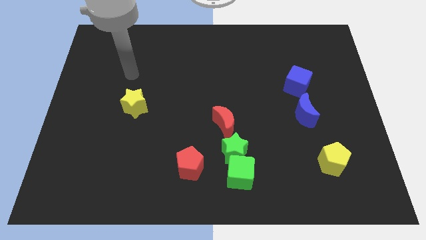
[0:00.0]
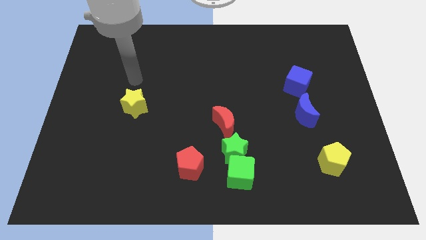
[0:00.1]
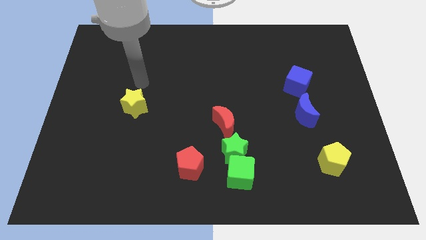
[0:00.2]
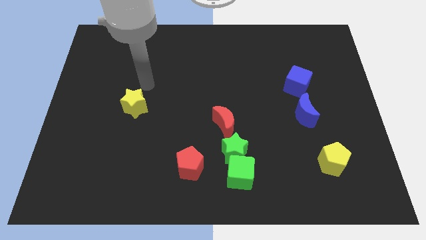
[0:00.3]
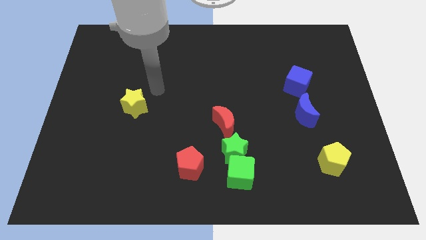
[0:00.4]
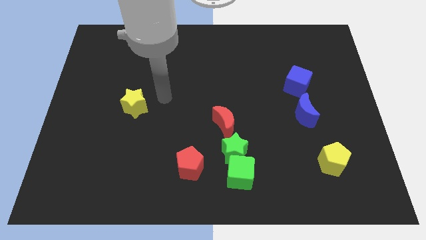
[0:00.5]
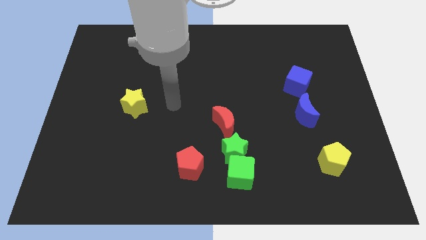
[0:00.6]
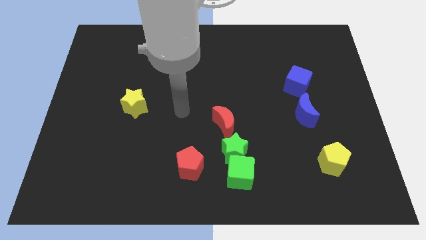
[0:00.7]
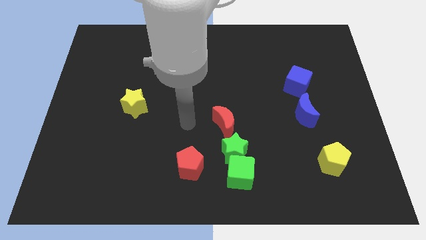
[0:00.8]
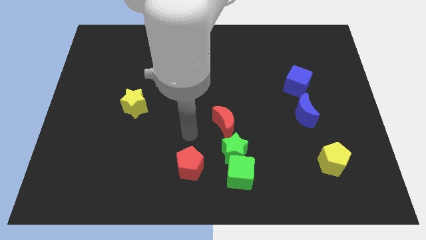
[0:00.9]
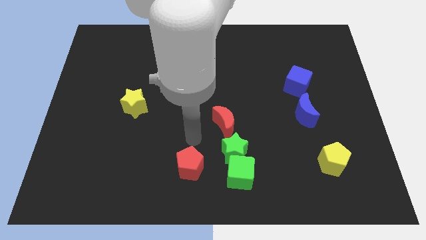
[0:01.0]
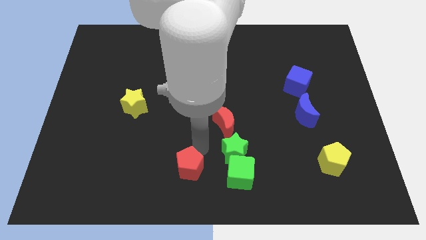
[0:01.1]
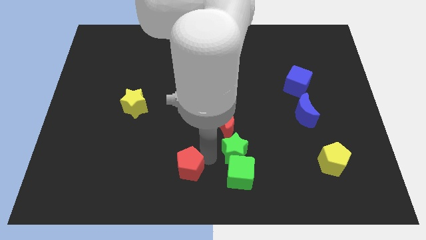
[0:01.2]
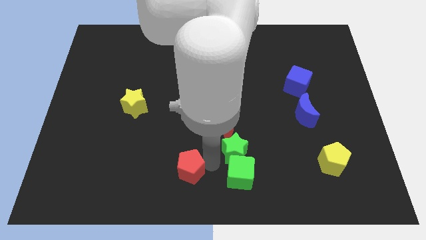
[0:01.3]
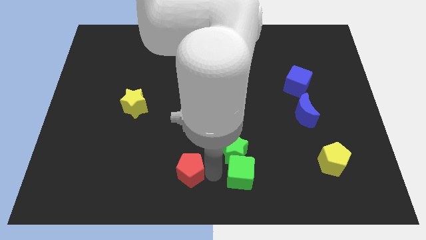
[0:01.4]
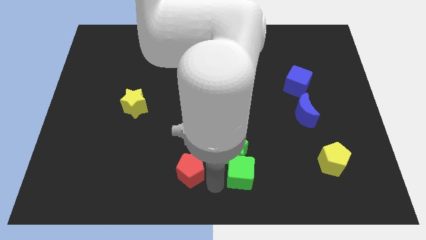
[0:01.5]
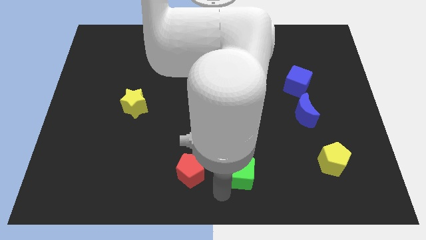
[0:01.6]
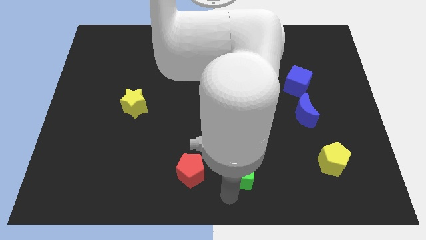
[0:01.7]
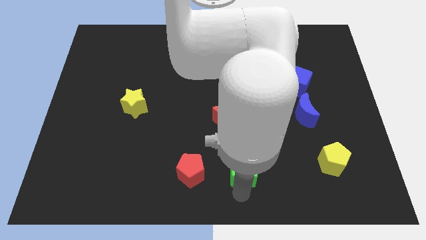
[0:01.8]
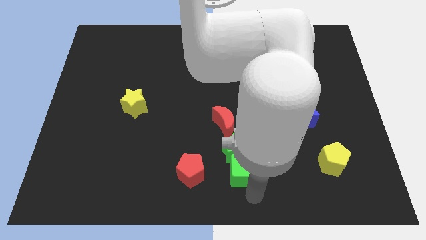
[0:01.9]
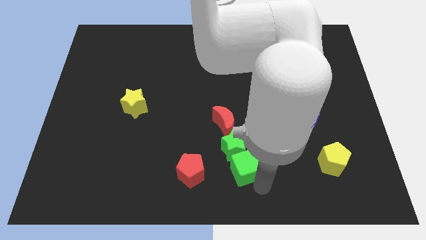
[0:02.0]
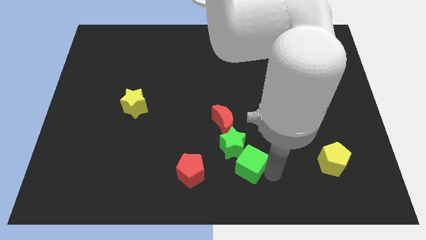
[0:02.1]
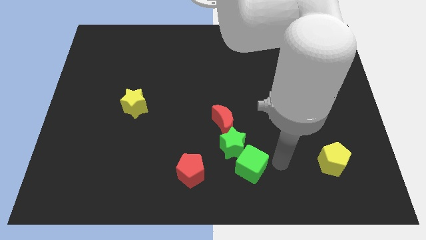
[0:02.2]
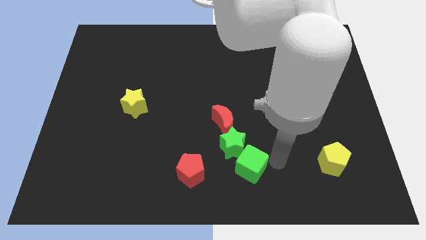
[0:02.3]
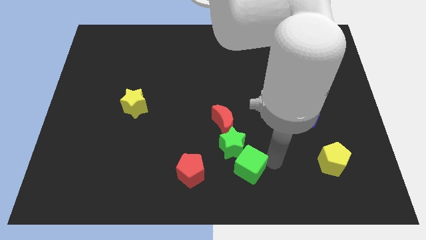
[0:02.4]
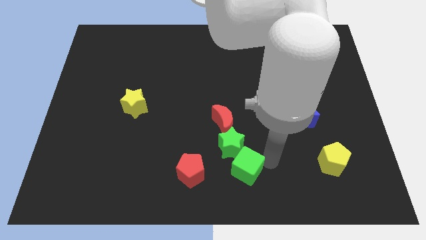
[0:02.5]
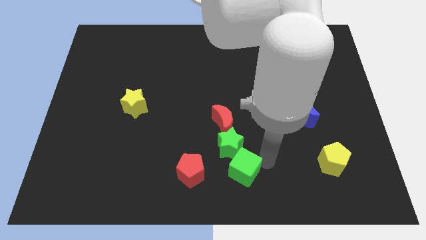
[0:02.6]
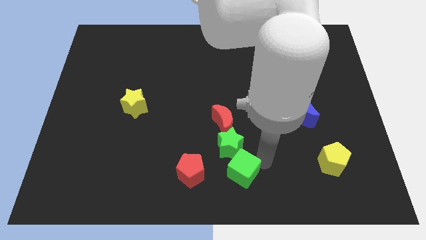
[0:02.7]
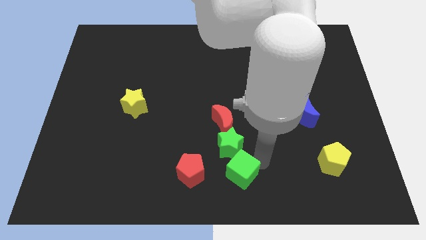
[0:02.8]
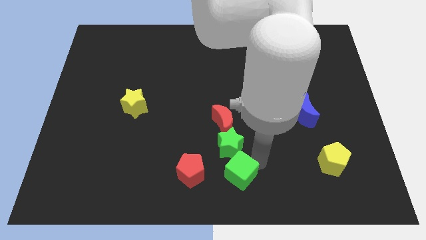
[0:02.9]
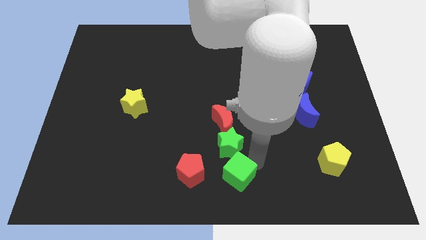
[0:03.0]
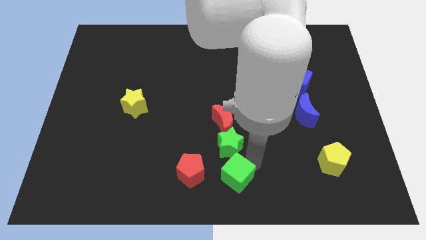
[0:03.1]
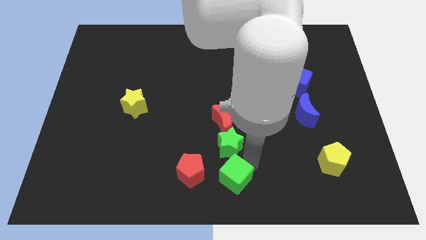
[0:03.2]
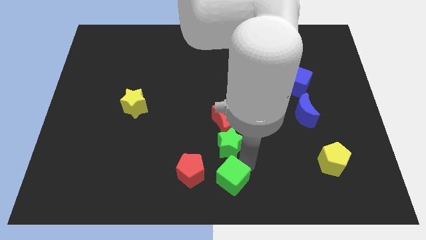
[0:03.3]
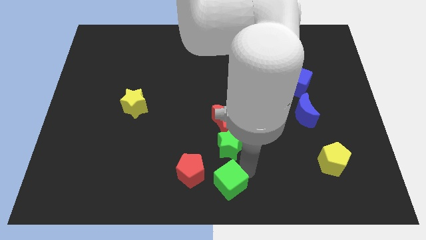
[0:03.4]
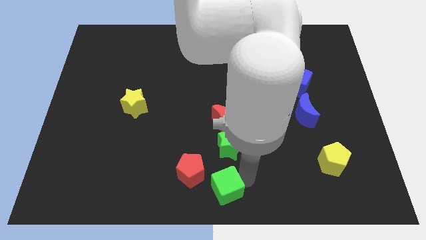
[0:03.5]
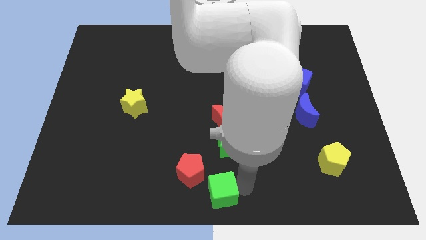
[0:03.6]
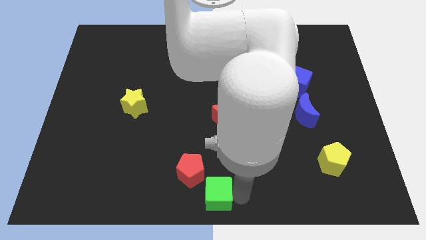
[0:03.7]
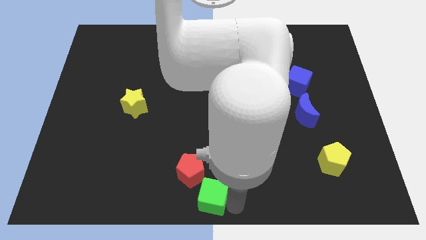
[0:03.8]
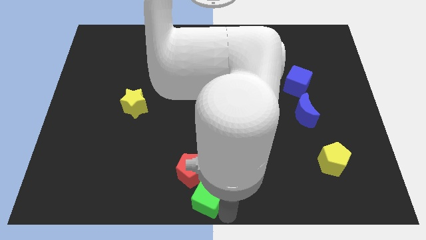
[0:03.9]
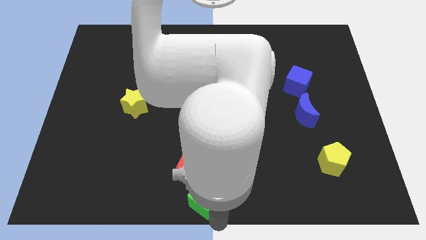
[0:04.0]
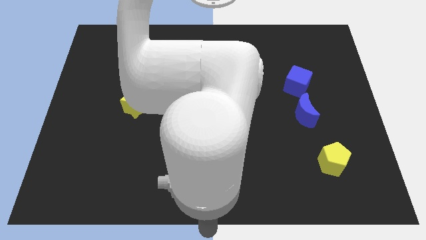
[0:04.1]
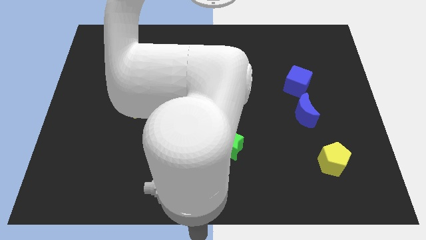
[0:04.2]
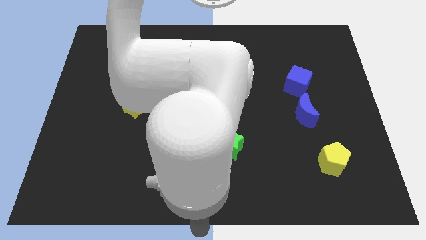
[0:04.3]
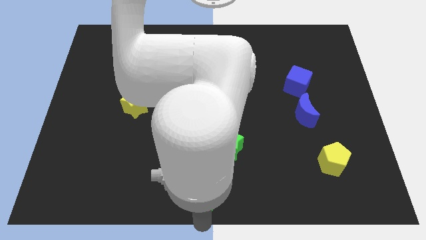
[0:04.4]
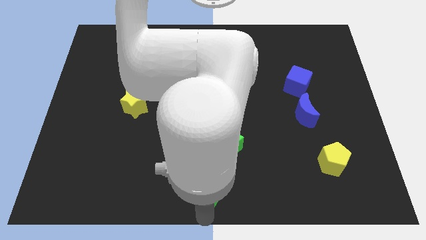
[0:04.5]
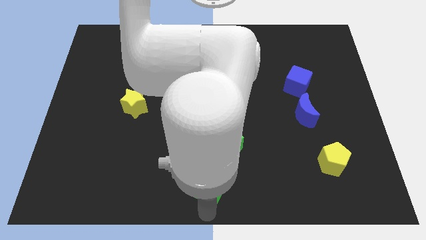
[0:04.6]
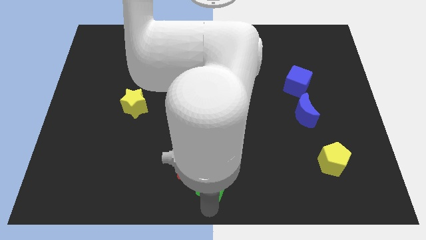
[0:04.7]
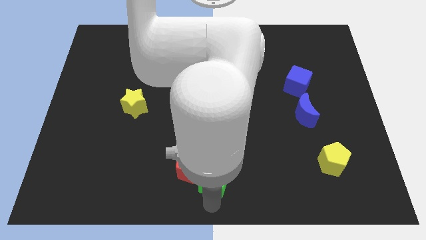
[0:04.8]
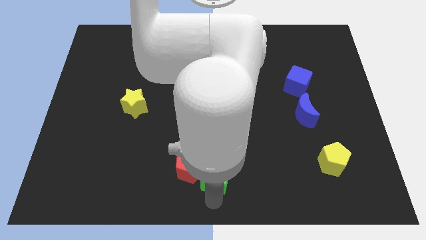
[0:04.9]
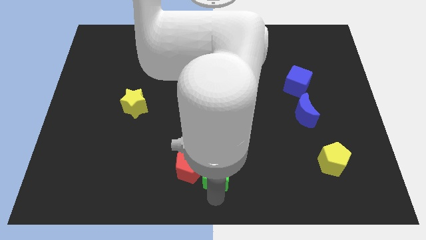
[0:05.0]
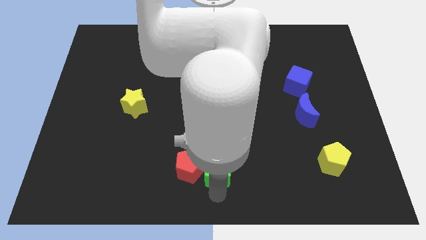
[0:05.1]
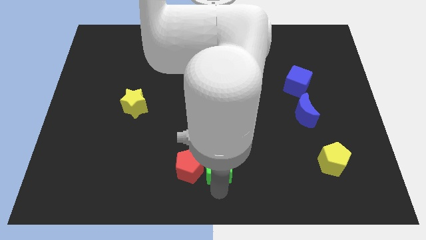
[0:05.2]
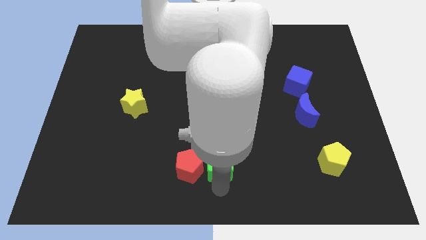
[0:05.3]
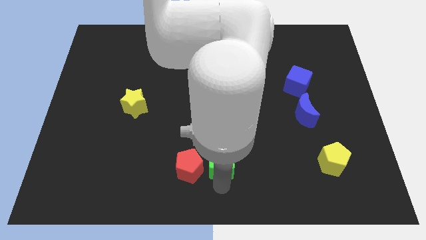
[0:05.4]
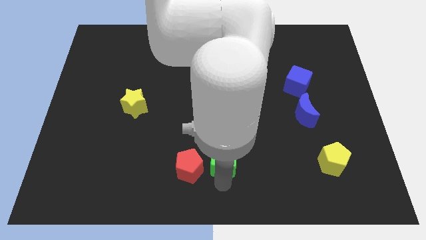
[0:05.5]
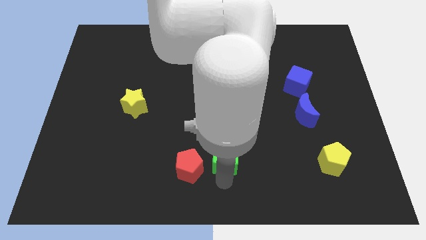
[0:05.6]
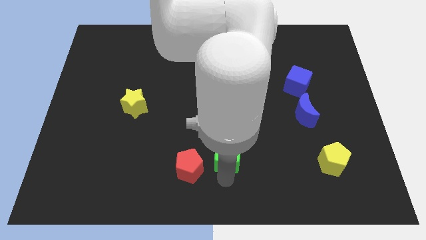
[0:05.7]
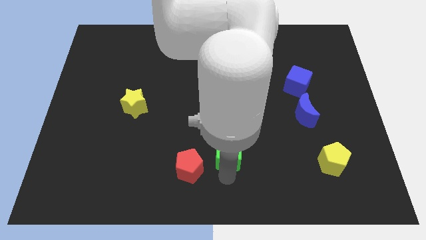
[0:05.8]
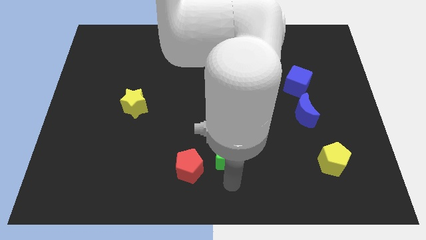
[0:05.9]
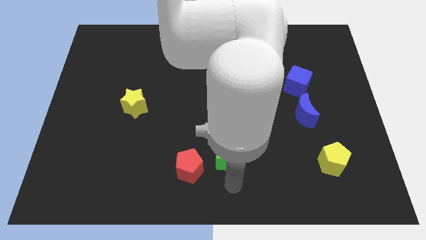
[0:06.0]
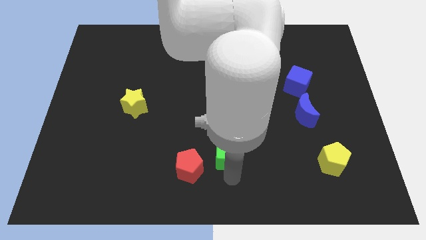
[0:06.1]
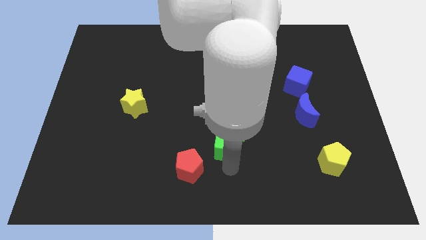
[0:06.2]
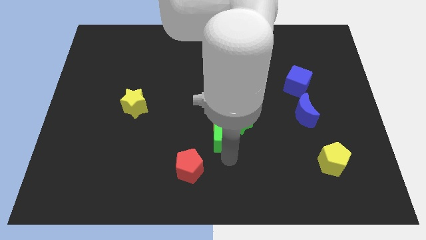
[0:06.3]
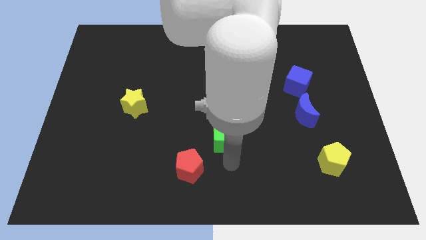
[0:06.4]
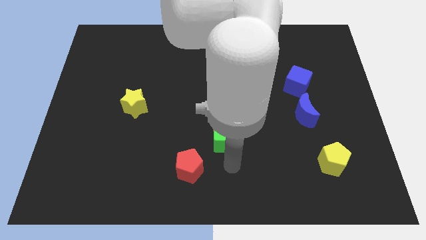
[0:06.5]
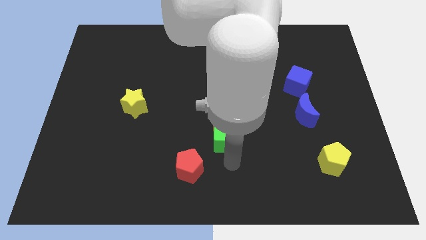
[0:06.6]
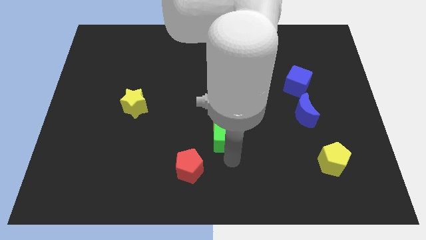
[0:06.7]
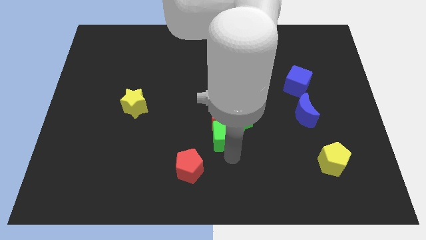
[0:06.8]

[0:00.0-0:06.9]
put the green cube to the red moon
